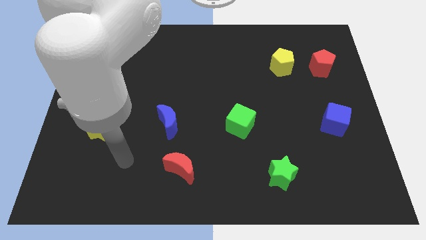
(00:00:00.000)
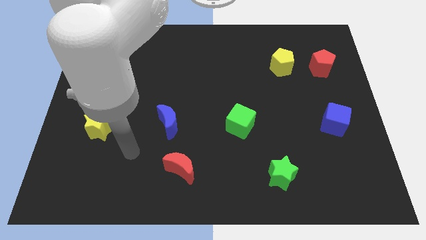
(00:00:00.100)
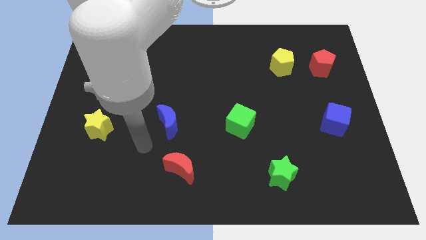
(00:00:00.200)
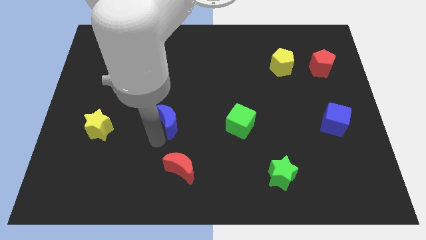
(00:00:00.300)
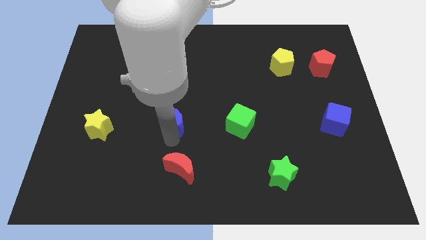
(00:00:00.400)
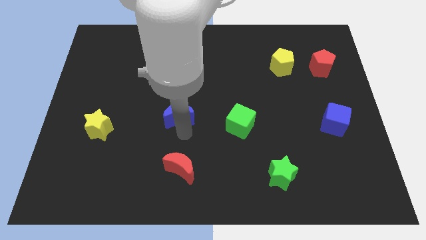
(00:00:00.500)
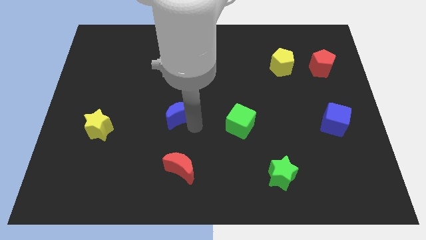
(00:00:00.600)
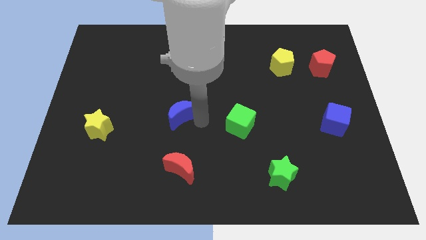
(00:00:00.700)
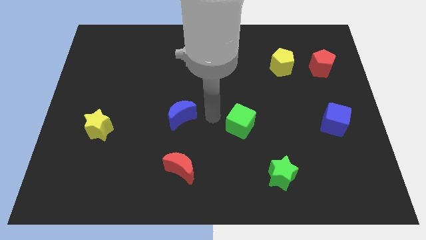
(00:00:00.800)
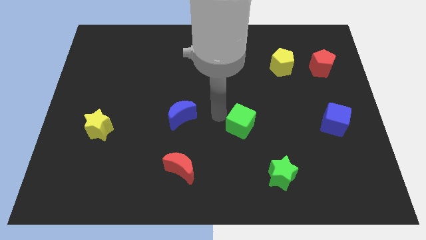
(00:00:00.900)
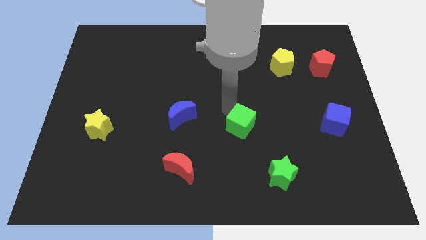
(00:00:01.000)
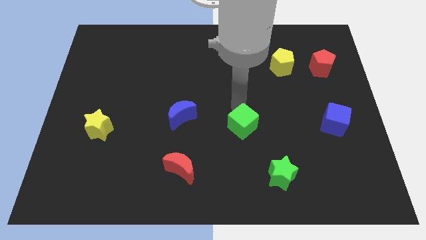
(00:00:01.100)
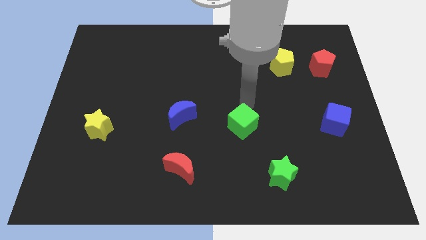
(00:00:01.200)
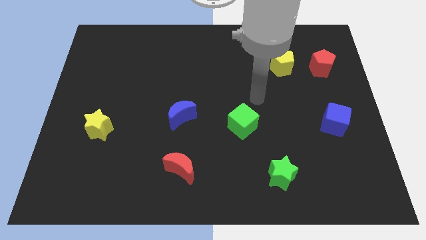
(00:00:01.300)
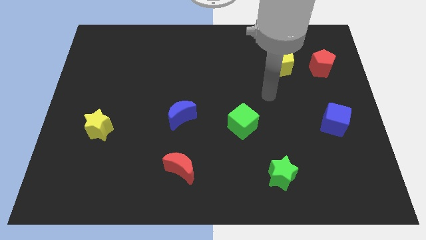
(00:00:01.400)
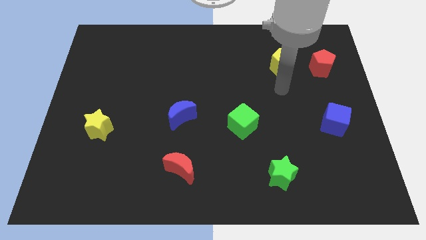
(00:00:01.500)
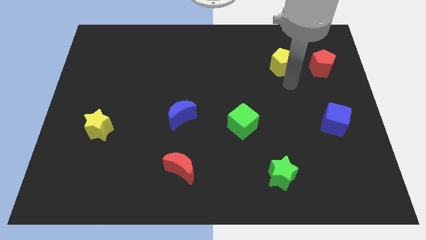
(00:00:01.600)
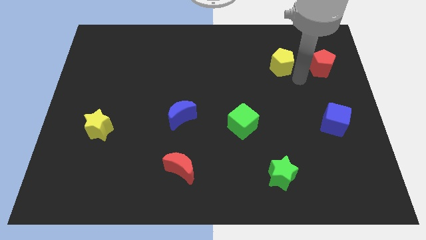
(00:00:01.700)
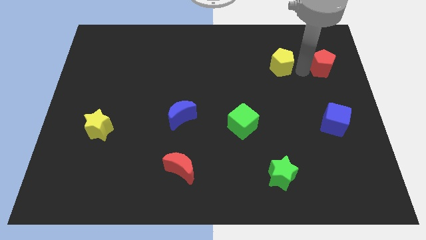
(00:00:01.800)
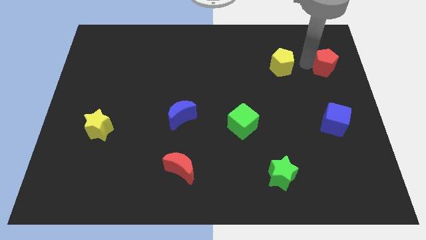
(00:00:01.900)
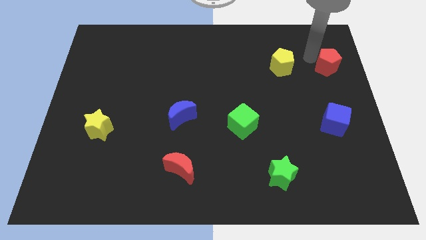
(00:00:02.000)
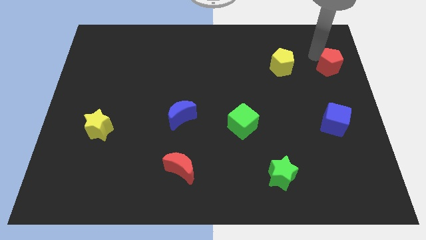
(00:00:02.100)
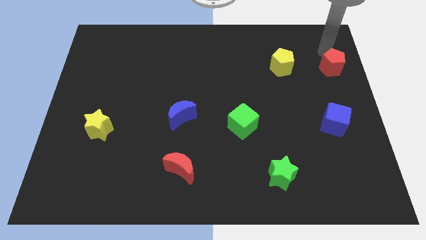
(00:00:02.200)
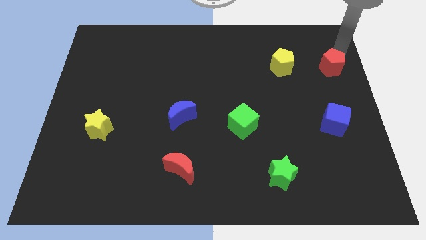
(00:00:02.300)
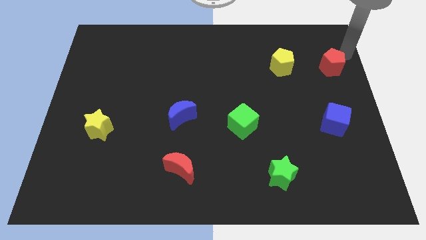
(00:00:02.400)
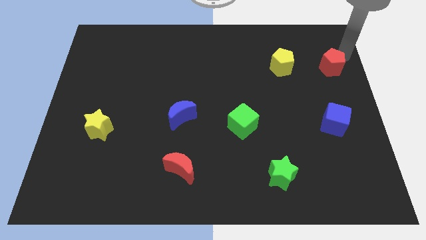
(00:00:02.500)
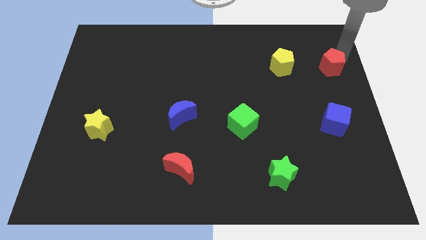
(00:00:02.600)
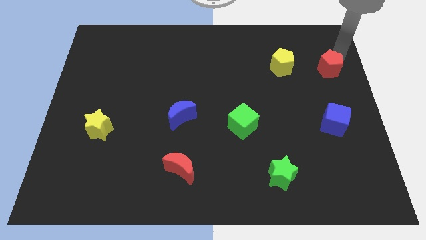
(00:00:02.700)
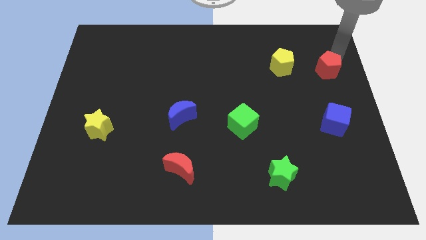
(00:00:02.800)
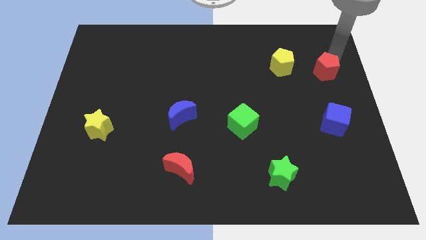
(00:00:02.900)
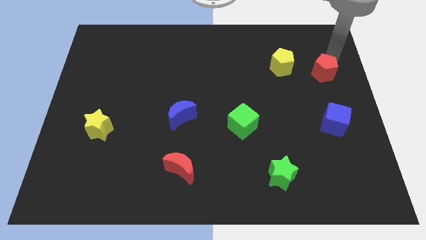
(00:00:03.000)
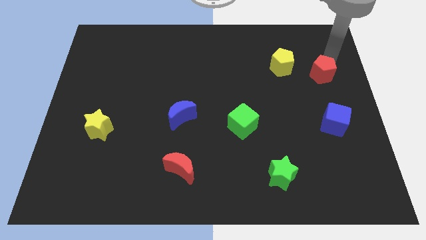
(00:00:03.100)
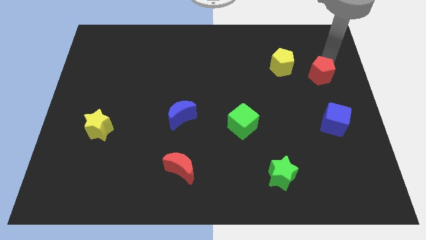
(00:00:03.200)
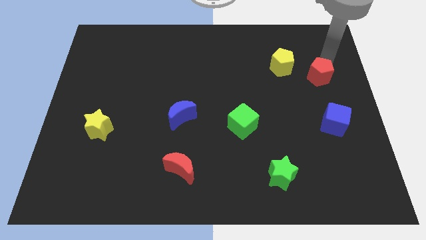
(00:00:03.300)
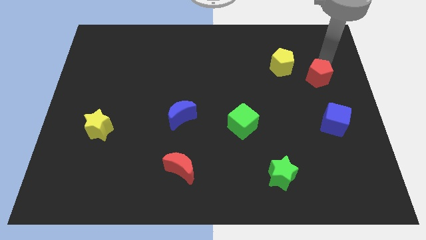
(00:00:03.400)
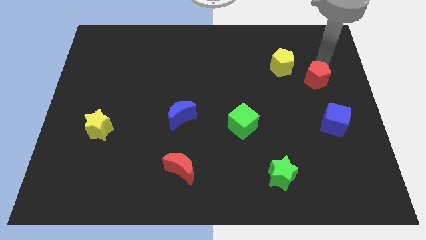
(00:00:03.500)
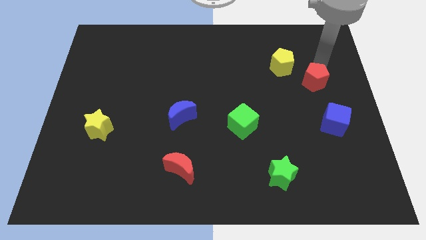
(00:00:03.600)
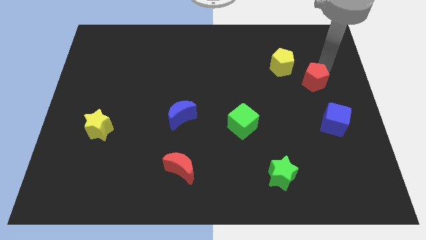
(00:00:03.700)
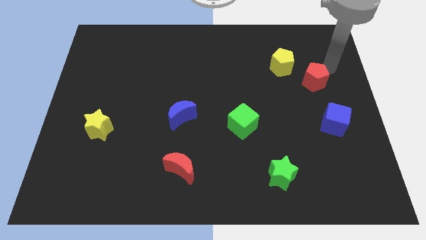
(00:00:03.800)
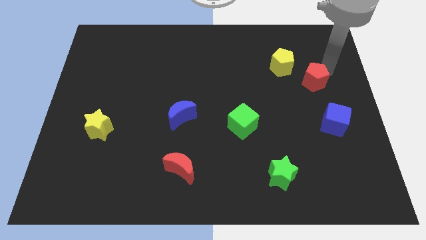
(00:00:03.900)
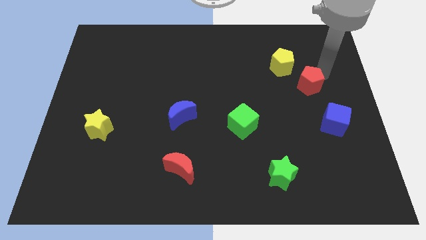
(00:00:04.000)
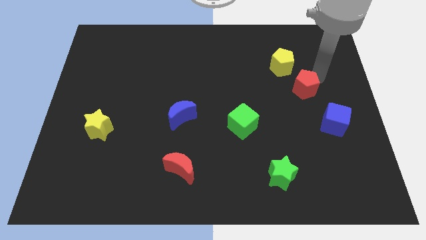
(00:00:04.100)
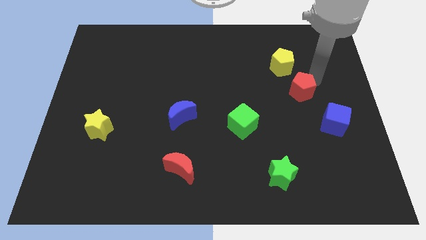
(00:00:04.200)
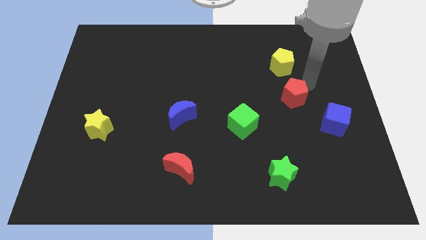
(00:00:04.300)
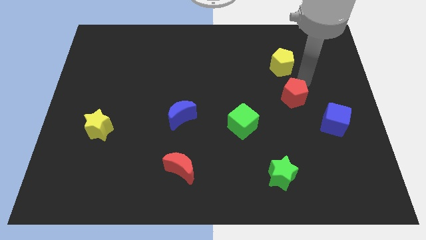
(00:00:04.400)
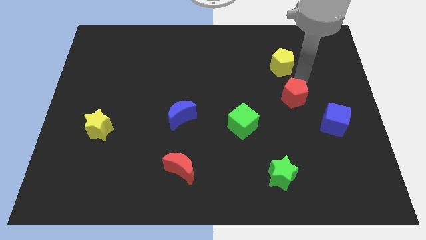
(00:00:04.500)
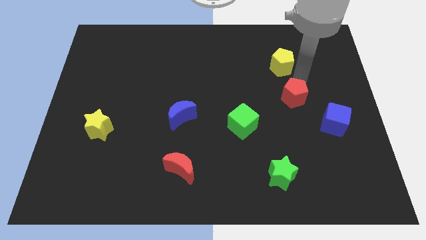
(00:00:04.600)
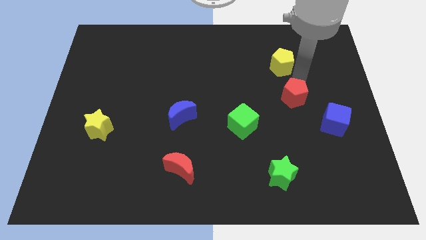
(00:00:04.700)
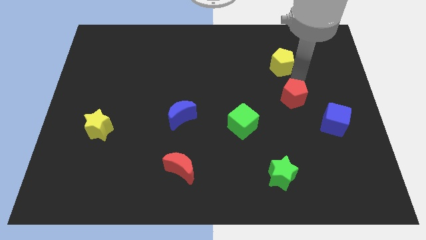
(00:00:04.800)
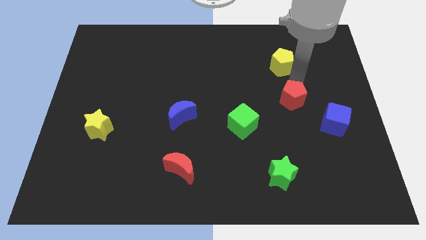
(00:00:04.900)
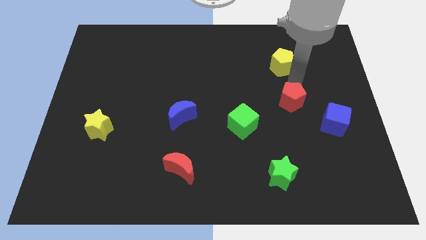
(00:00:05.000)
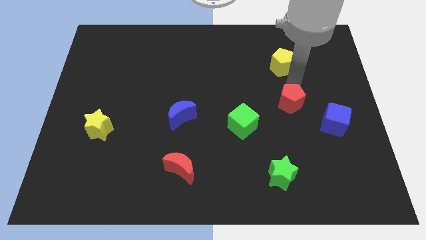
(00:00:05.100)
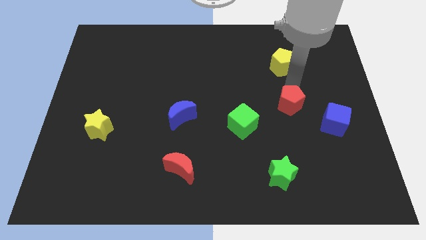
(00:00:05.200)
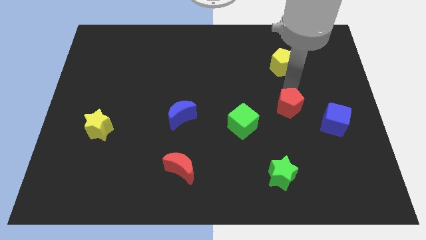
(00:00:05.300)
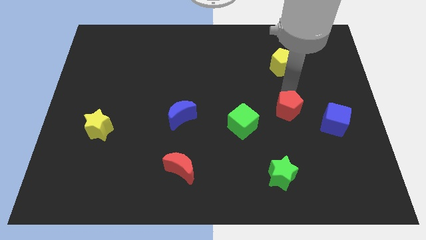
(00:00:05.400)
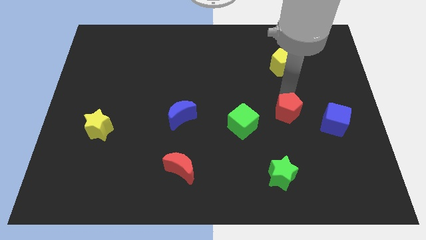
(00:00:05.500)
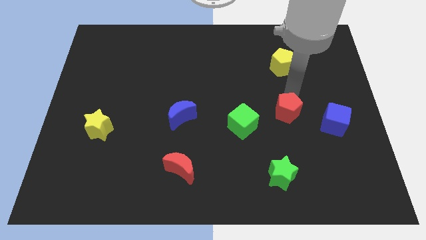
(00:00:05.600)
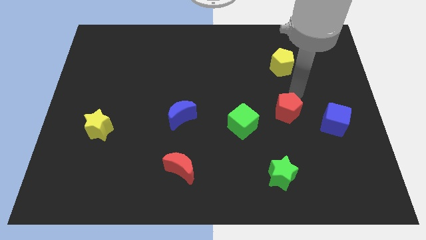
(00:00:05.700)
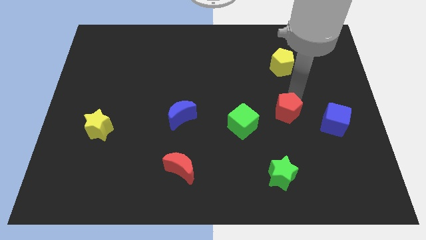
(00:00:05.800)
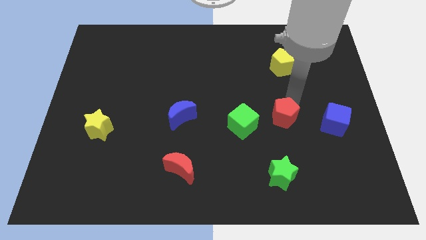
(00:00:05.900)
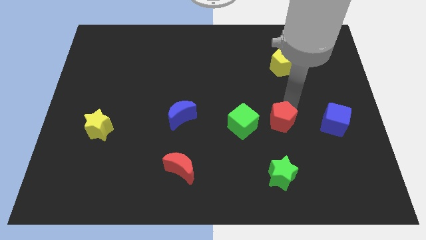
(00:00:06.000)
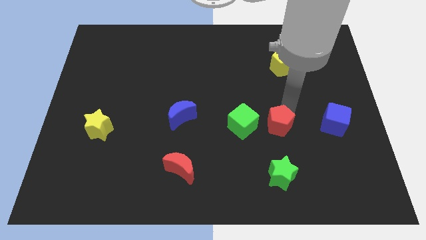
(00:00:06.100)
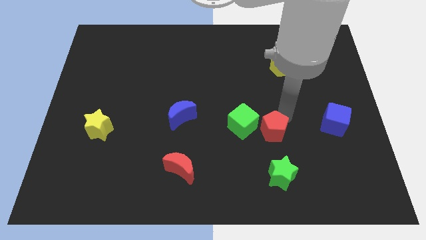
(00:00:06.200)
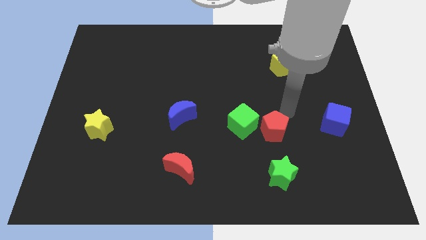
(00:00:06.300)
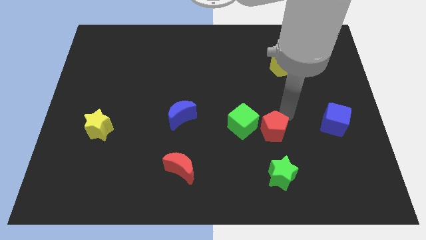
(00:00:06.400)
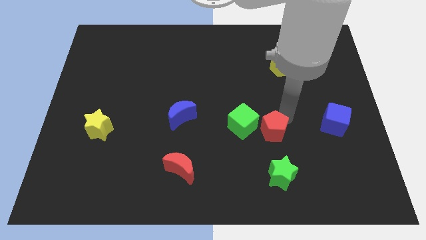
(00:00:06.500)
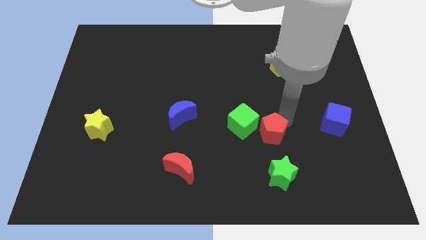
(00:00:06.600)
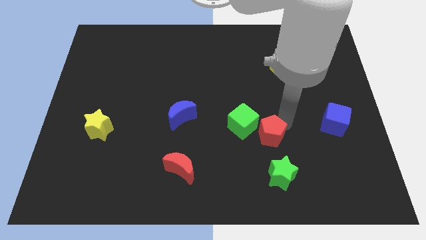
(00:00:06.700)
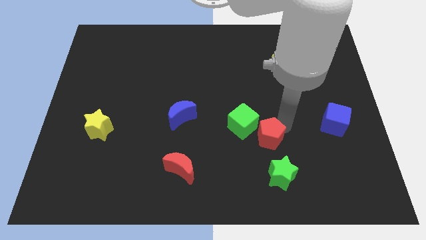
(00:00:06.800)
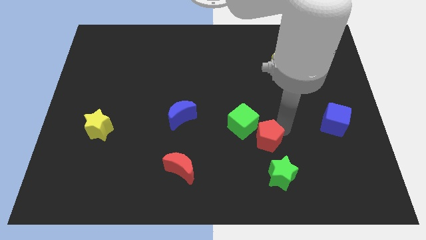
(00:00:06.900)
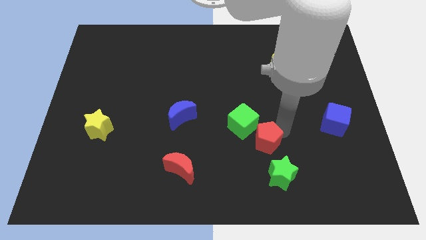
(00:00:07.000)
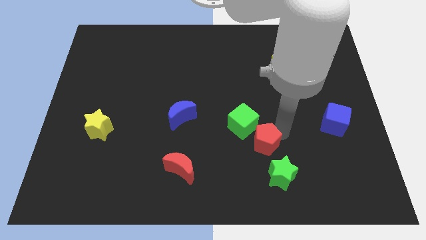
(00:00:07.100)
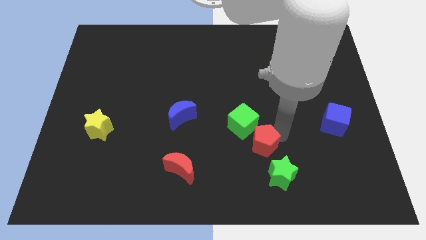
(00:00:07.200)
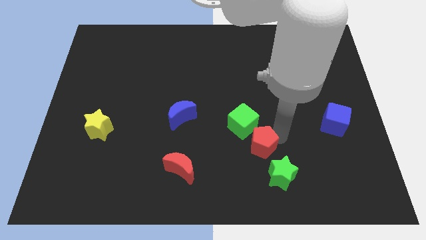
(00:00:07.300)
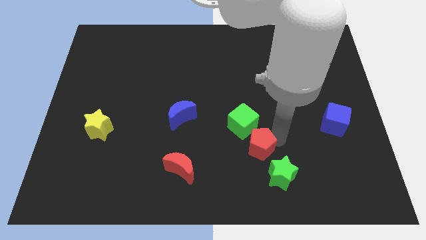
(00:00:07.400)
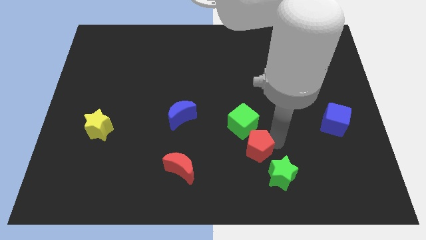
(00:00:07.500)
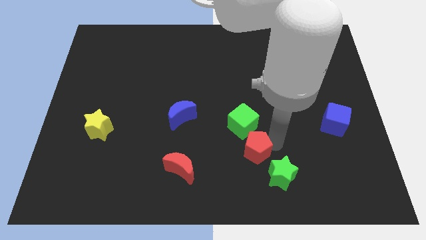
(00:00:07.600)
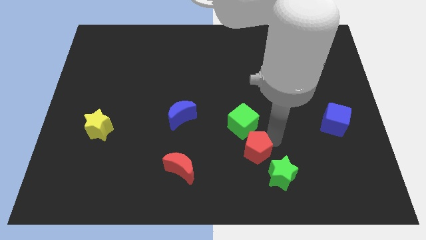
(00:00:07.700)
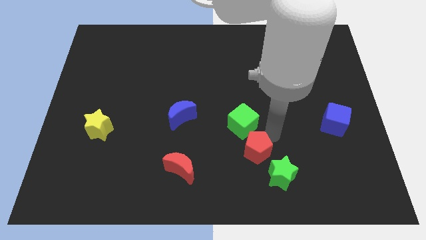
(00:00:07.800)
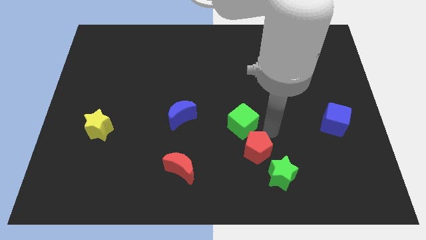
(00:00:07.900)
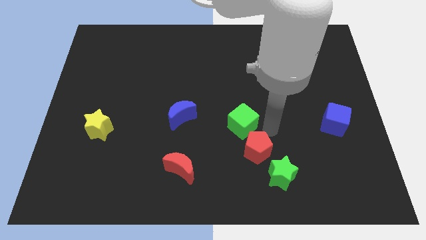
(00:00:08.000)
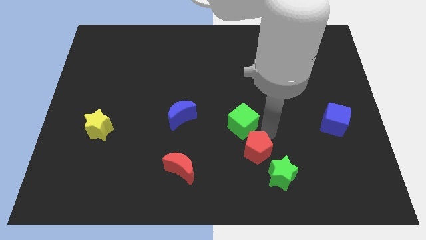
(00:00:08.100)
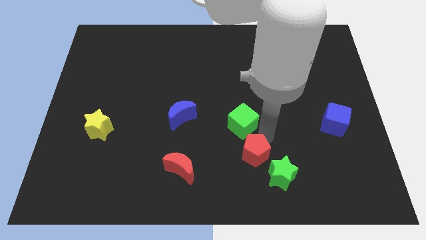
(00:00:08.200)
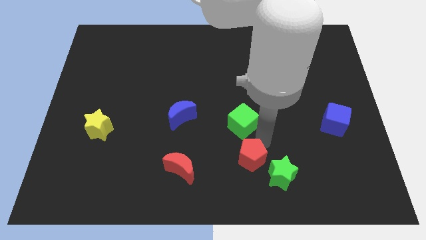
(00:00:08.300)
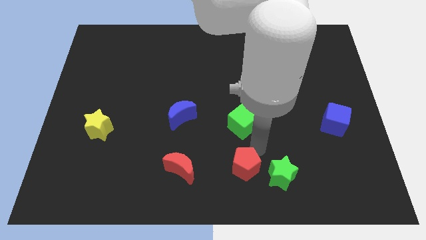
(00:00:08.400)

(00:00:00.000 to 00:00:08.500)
put the red pentagon to the bottom
